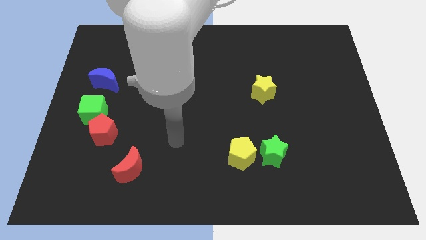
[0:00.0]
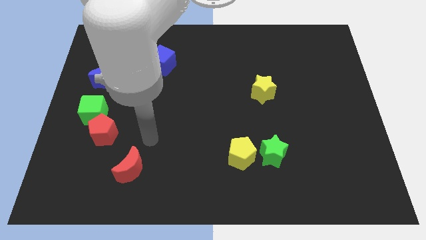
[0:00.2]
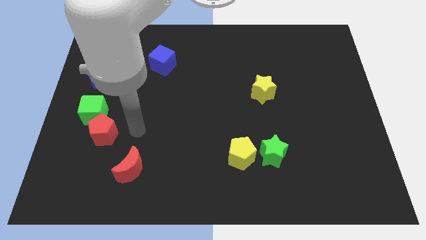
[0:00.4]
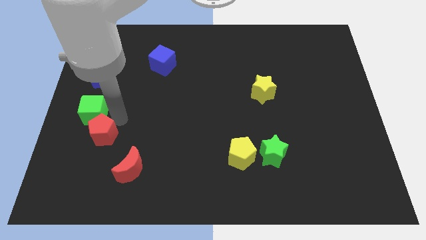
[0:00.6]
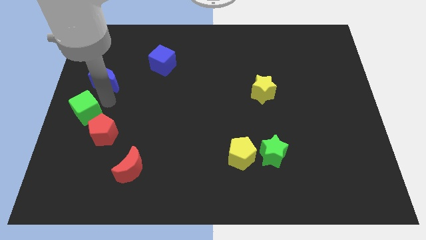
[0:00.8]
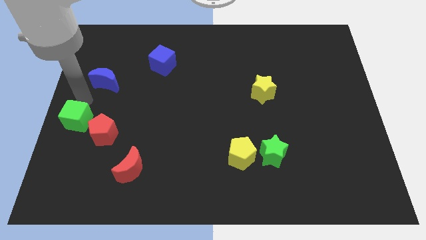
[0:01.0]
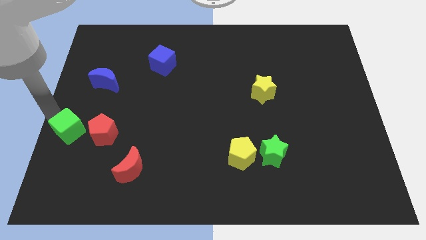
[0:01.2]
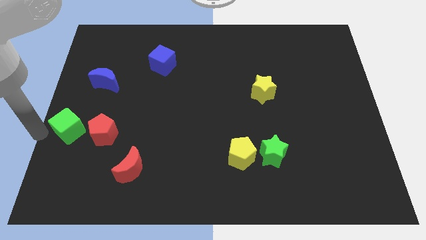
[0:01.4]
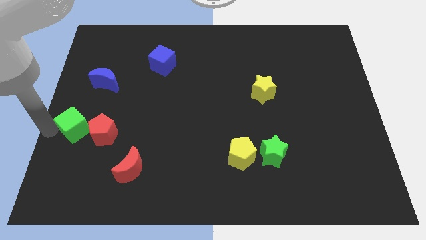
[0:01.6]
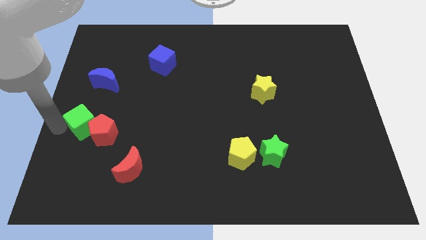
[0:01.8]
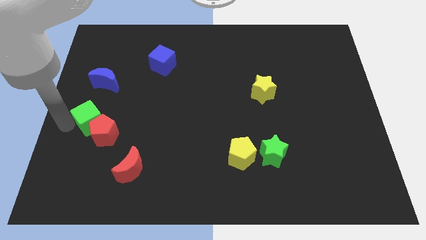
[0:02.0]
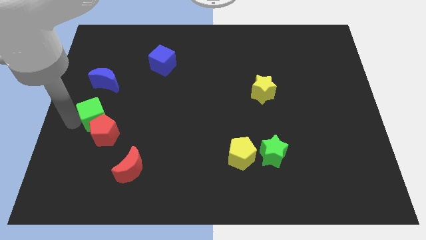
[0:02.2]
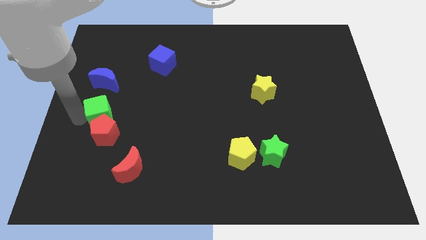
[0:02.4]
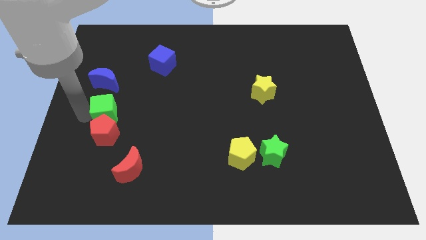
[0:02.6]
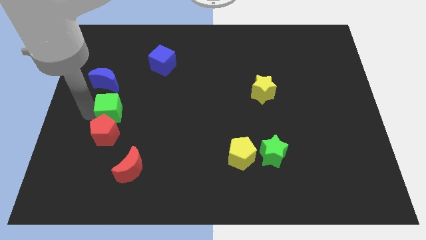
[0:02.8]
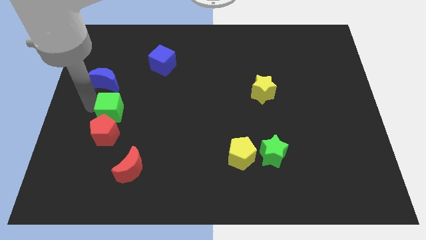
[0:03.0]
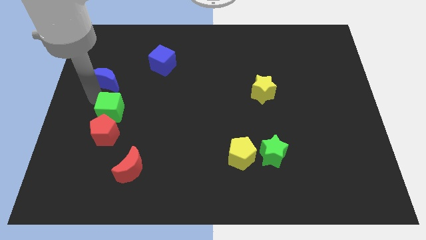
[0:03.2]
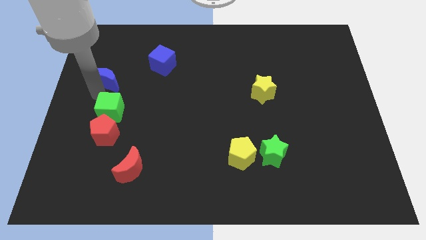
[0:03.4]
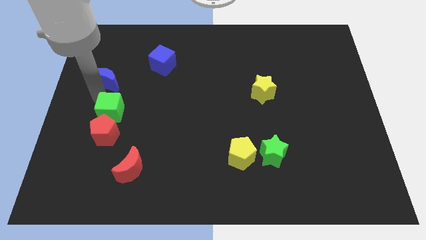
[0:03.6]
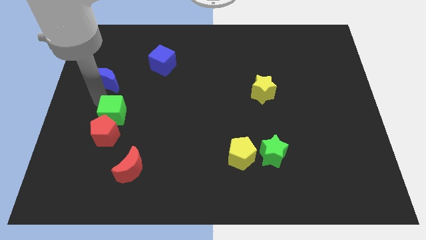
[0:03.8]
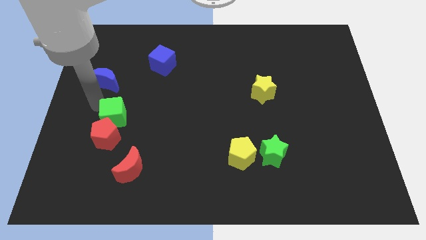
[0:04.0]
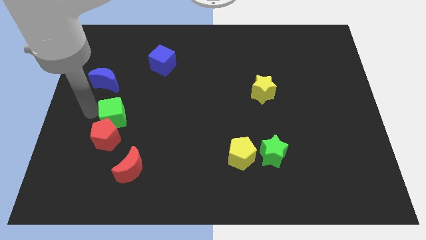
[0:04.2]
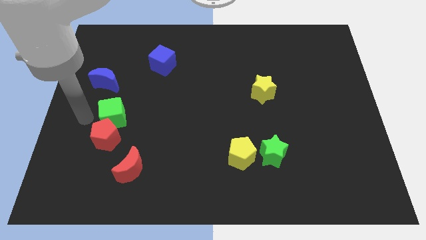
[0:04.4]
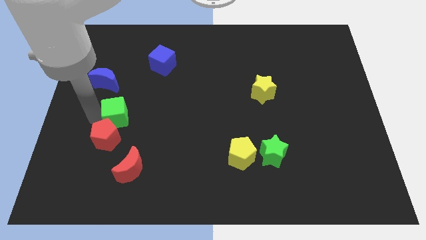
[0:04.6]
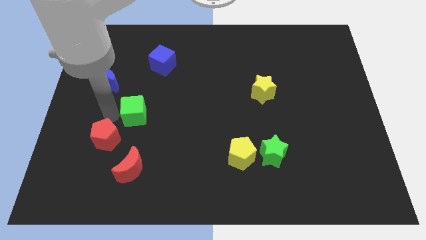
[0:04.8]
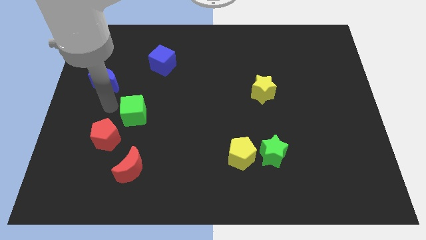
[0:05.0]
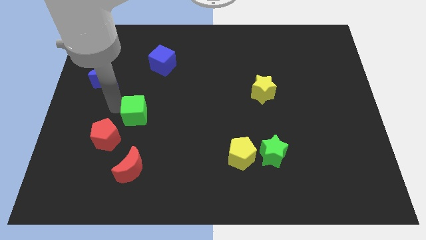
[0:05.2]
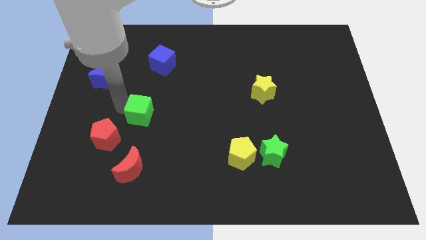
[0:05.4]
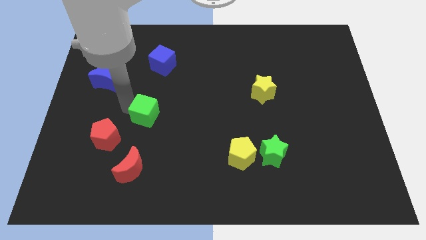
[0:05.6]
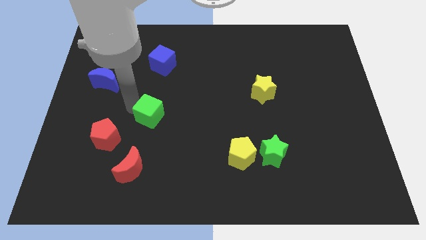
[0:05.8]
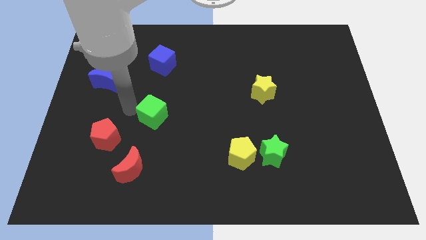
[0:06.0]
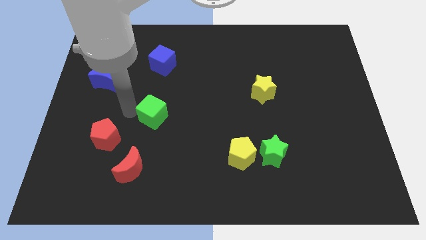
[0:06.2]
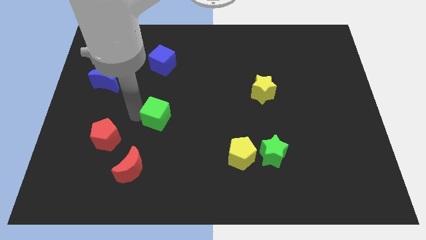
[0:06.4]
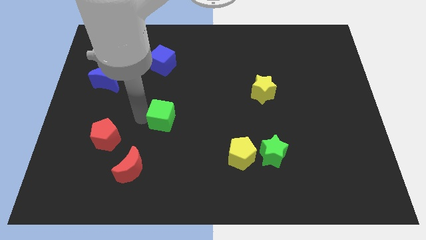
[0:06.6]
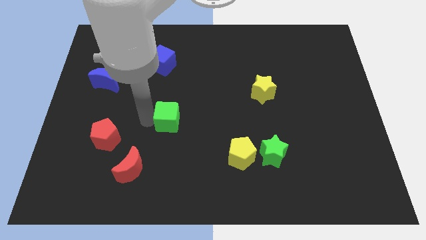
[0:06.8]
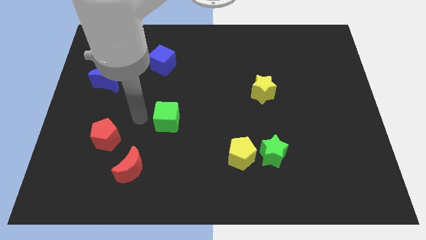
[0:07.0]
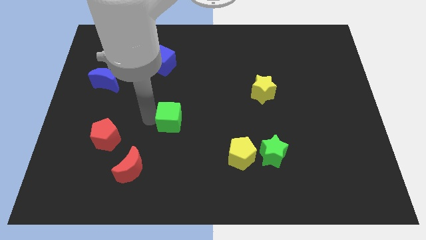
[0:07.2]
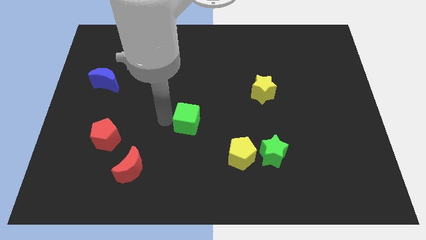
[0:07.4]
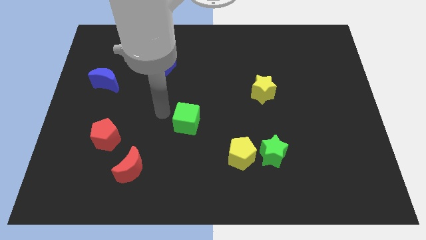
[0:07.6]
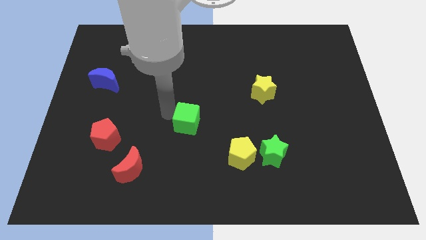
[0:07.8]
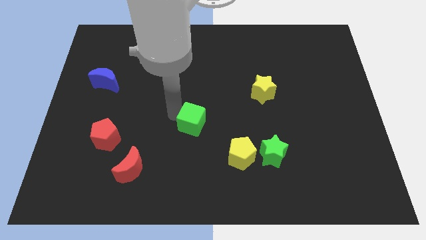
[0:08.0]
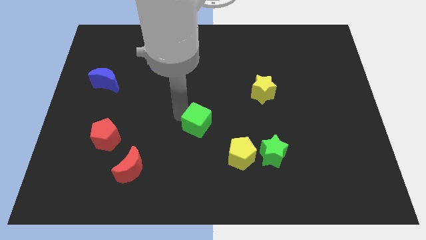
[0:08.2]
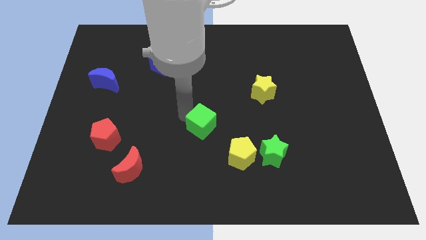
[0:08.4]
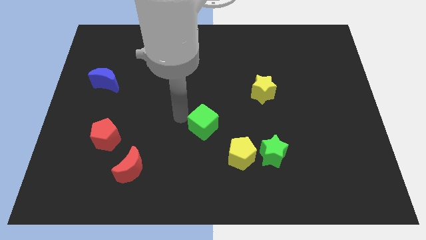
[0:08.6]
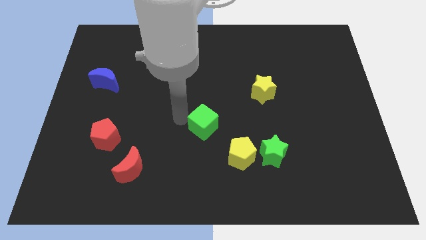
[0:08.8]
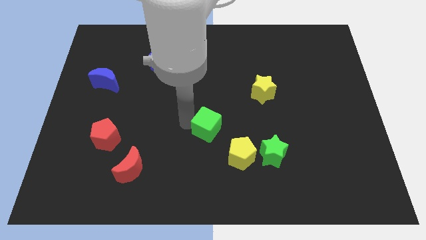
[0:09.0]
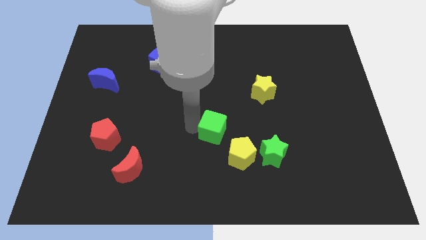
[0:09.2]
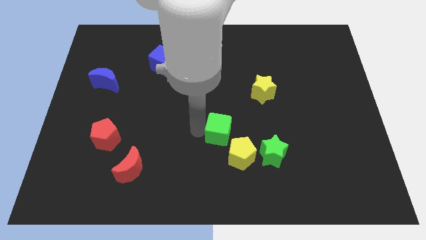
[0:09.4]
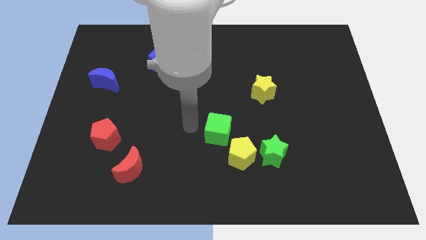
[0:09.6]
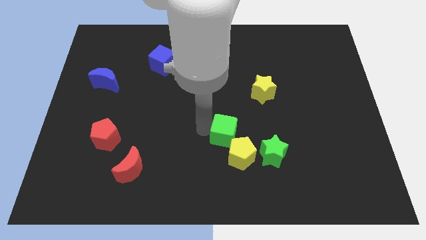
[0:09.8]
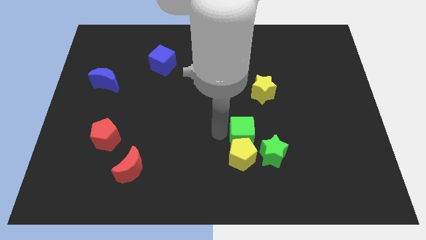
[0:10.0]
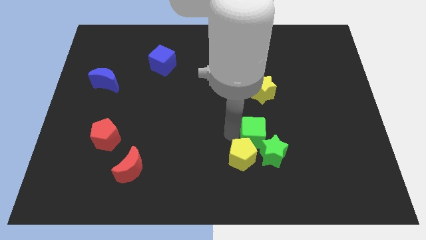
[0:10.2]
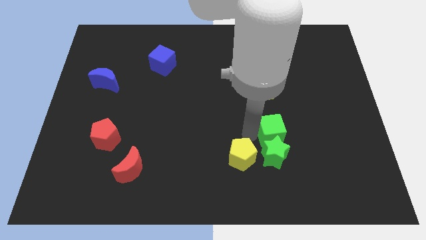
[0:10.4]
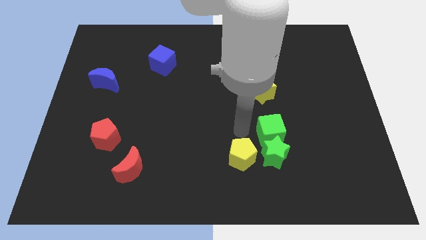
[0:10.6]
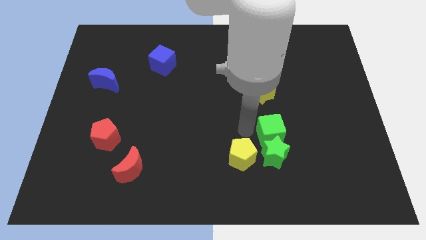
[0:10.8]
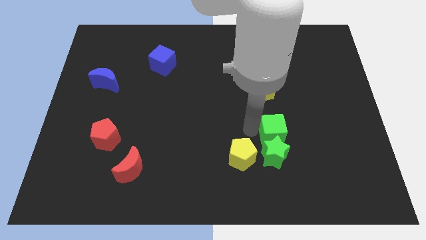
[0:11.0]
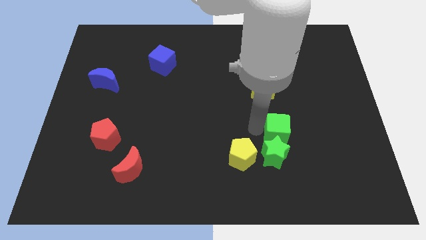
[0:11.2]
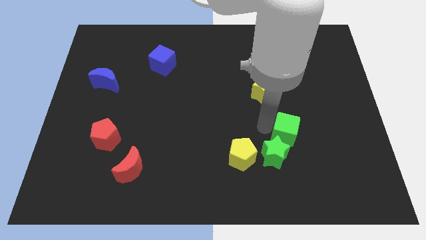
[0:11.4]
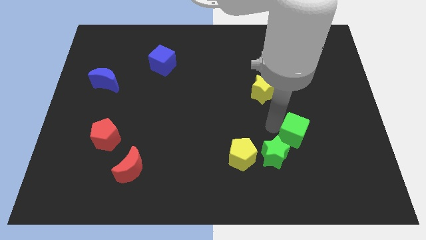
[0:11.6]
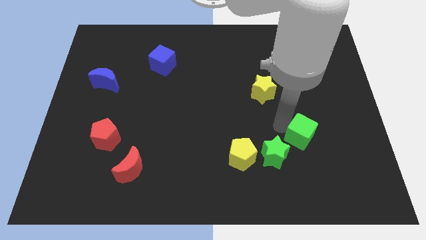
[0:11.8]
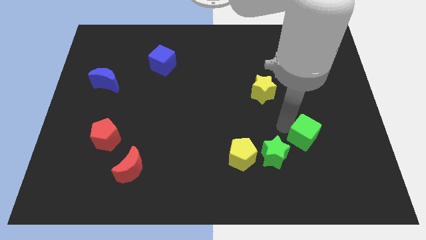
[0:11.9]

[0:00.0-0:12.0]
push the green cube just right of the green star

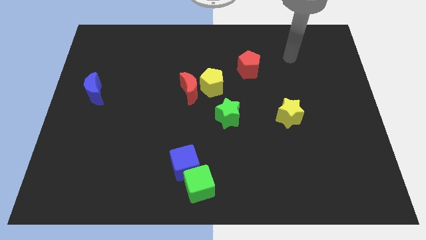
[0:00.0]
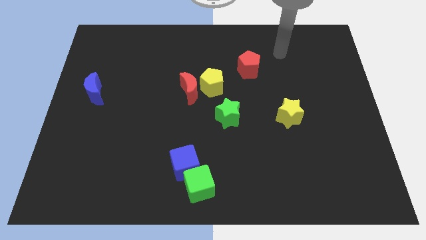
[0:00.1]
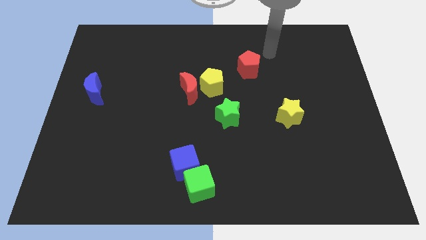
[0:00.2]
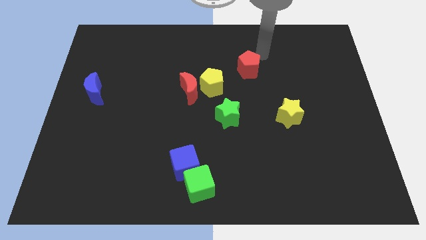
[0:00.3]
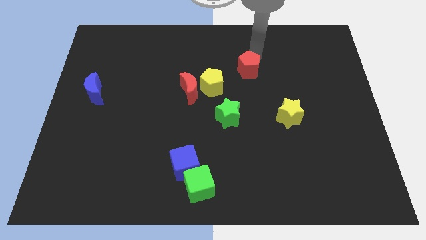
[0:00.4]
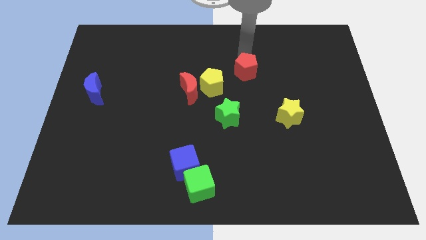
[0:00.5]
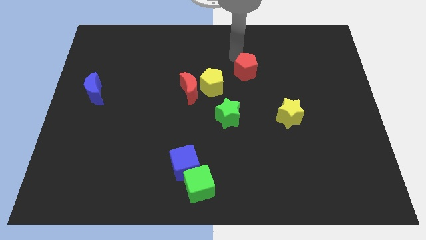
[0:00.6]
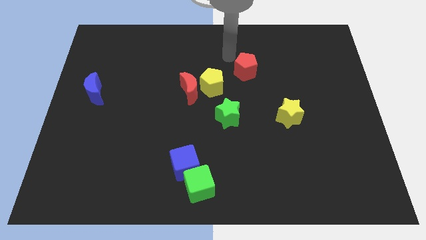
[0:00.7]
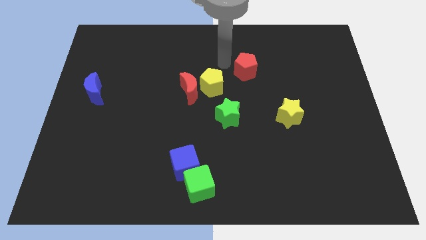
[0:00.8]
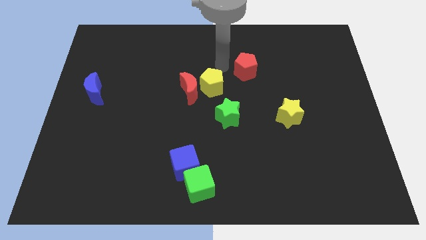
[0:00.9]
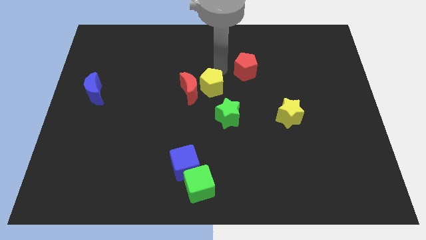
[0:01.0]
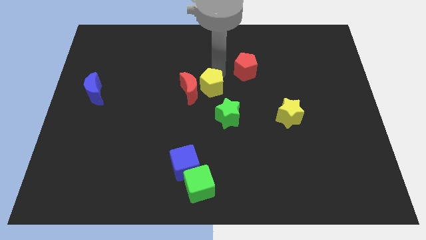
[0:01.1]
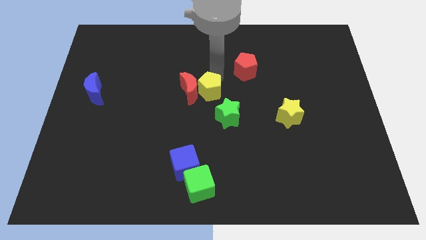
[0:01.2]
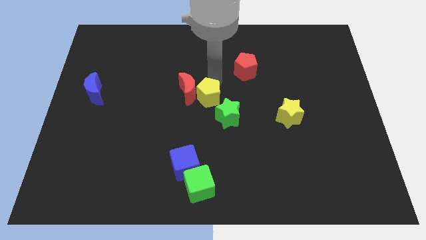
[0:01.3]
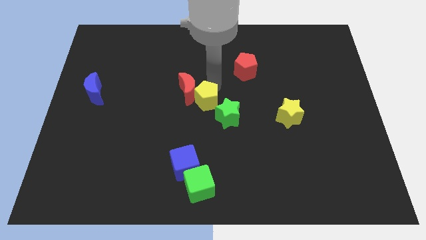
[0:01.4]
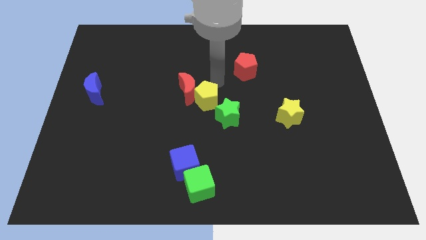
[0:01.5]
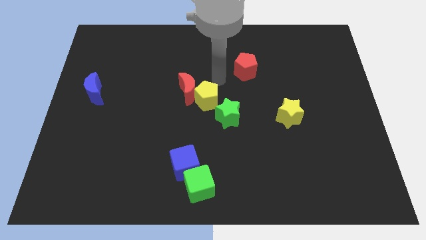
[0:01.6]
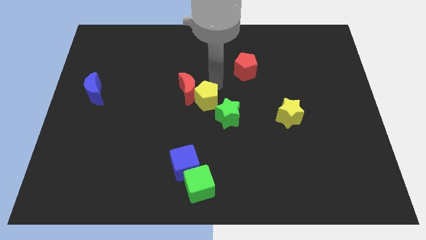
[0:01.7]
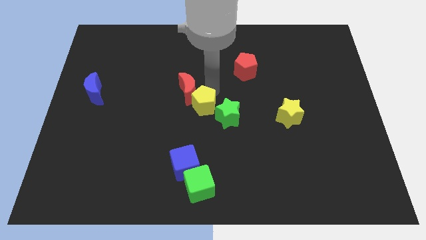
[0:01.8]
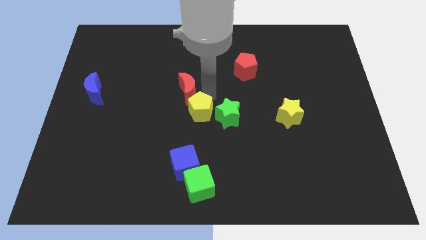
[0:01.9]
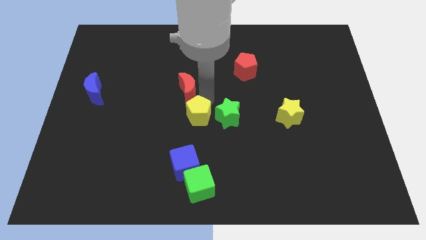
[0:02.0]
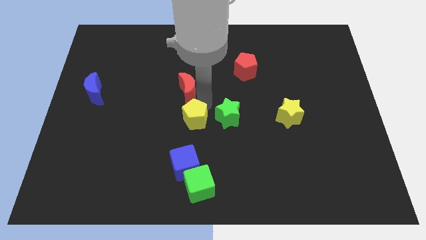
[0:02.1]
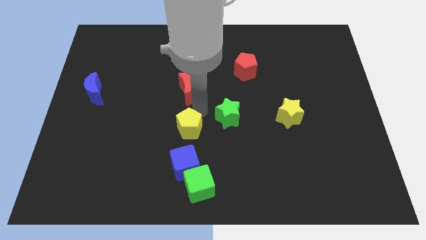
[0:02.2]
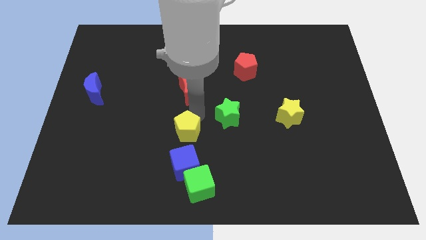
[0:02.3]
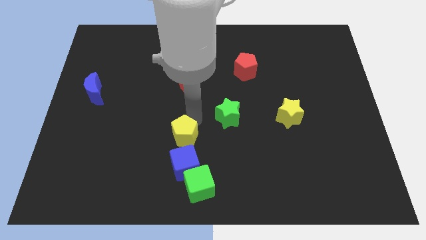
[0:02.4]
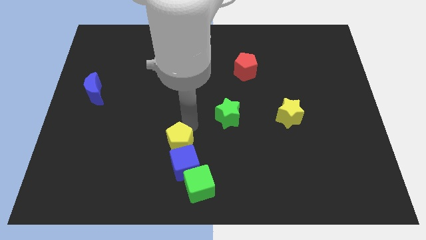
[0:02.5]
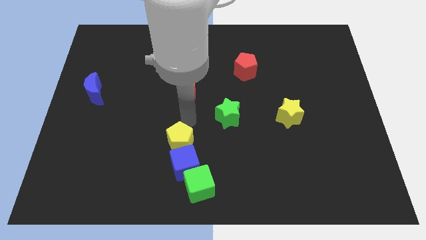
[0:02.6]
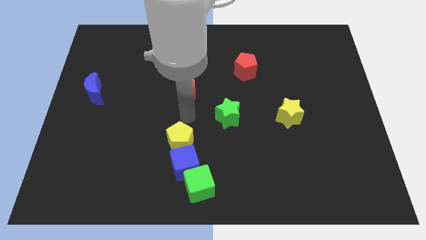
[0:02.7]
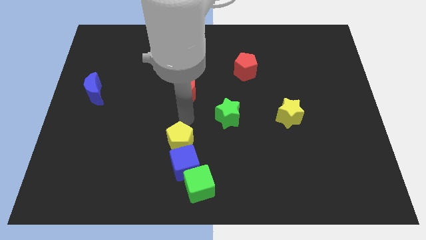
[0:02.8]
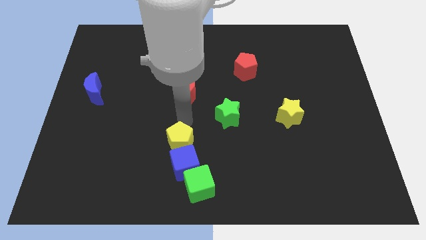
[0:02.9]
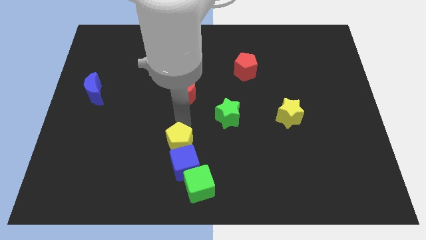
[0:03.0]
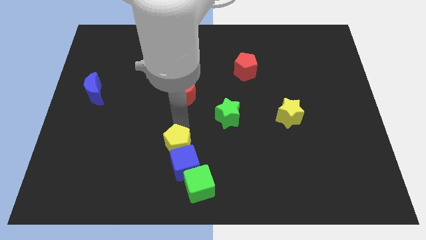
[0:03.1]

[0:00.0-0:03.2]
put the yellow pentagon diagonally up and to the left of the green cube
